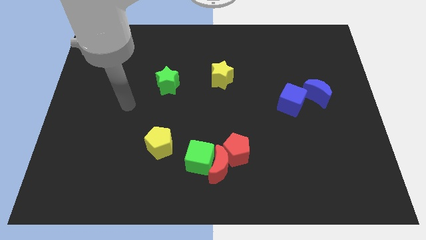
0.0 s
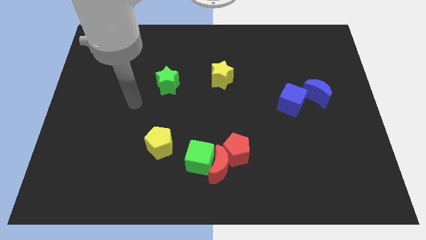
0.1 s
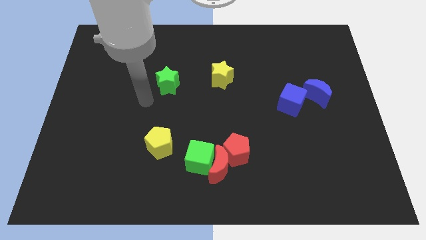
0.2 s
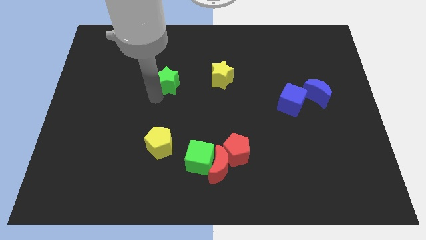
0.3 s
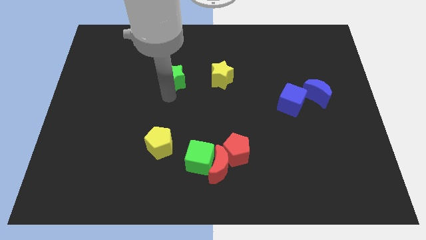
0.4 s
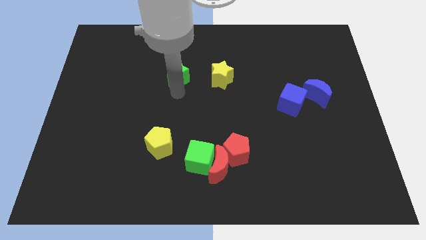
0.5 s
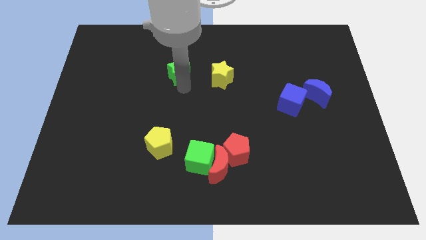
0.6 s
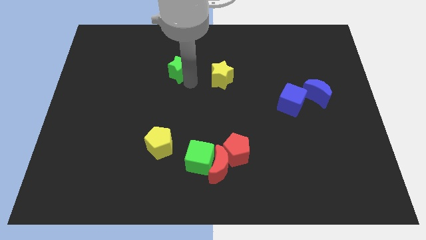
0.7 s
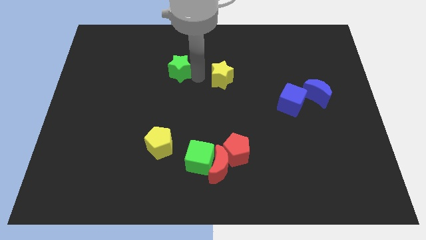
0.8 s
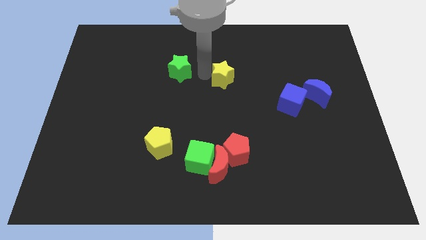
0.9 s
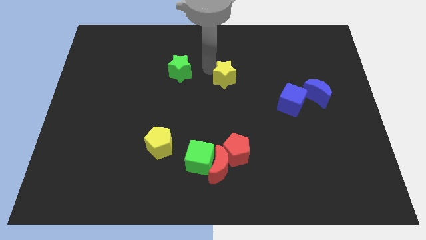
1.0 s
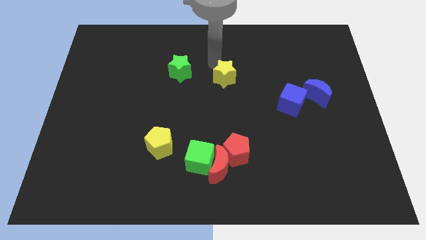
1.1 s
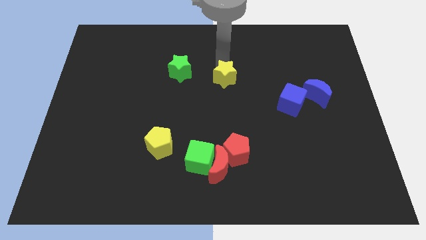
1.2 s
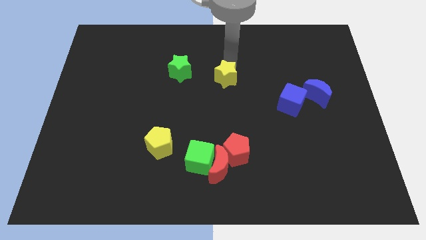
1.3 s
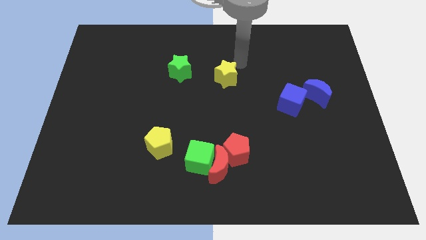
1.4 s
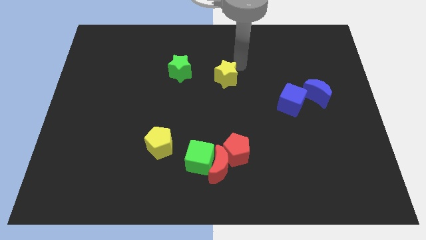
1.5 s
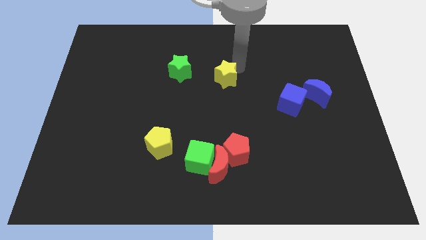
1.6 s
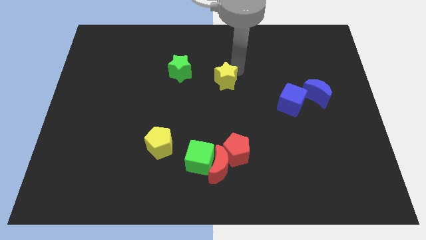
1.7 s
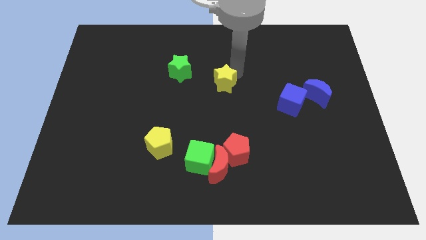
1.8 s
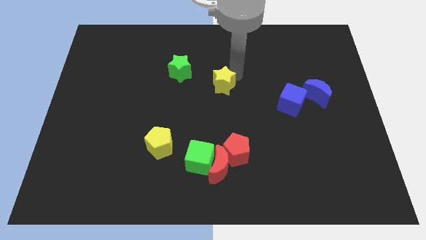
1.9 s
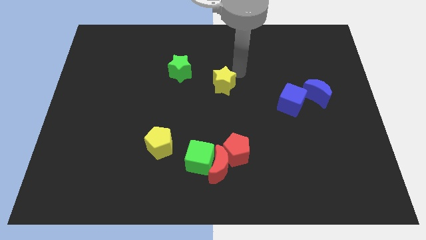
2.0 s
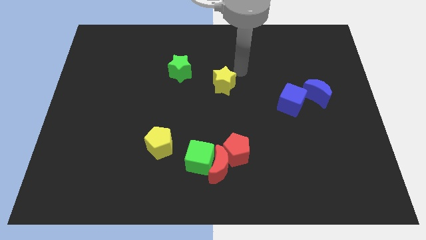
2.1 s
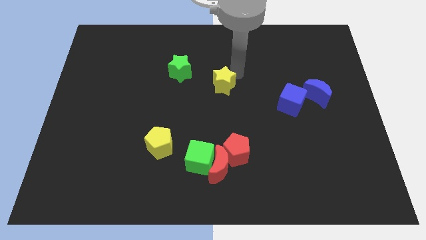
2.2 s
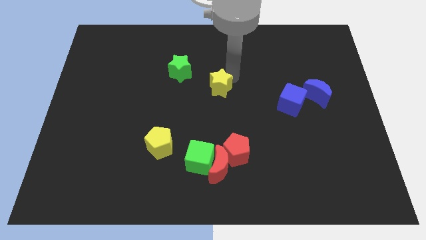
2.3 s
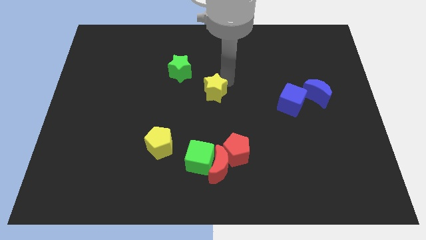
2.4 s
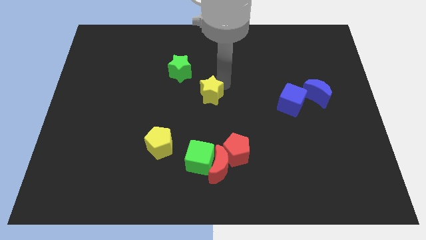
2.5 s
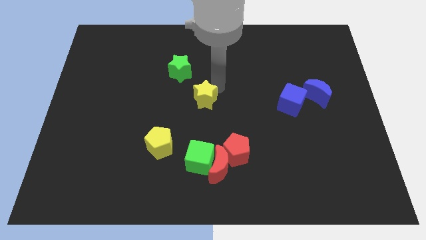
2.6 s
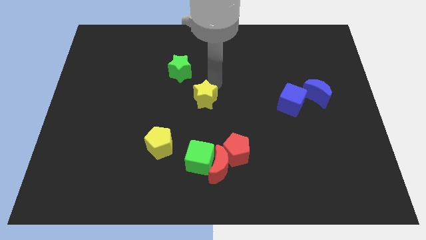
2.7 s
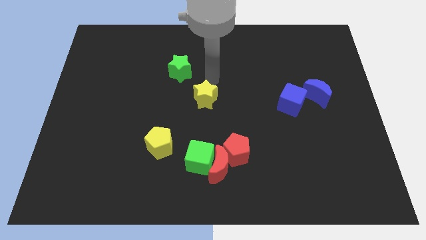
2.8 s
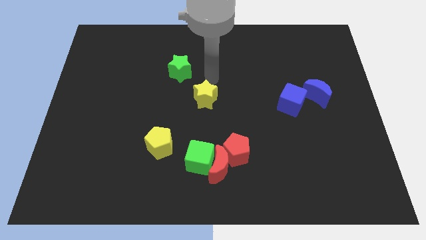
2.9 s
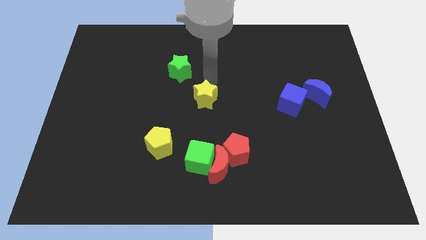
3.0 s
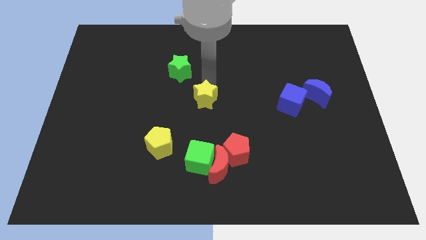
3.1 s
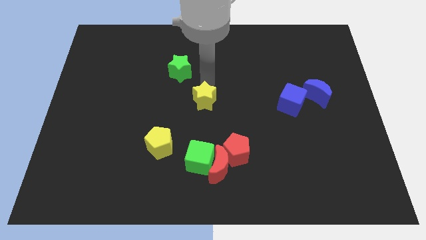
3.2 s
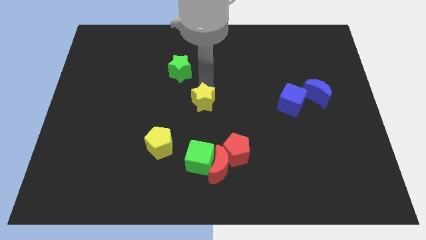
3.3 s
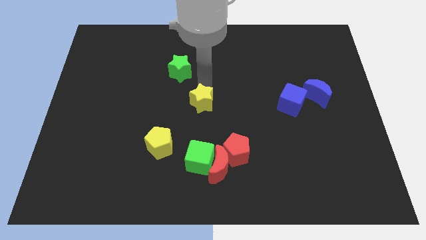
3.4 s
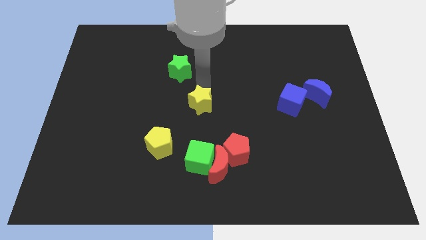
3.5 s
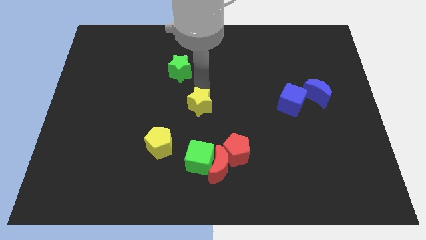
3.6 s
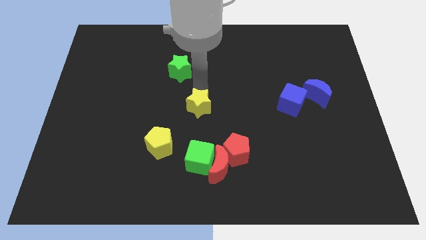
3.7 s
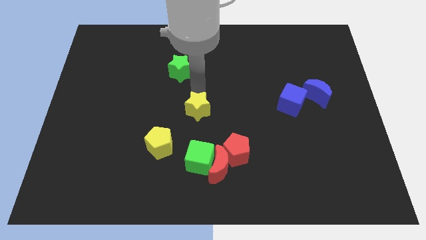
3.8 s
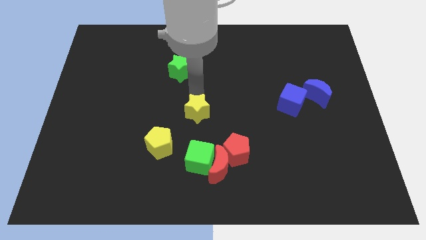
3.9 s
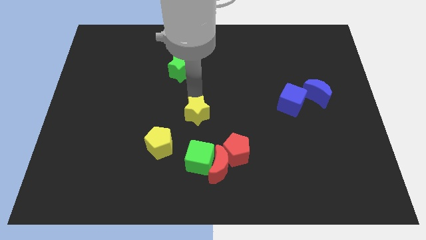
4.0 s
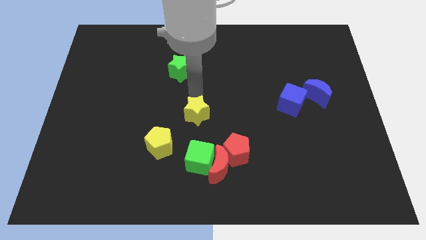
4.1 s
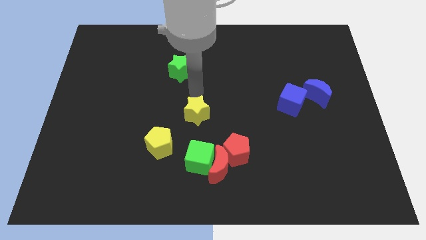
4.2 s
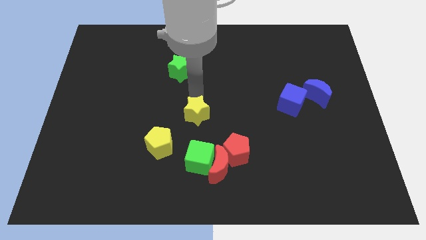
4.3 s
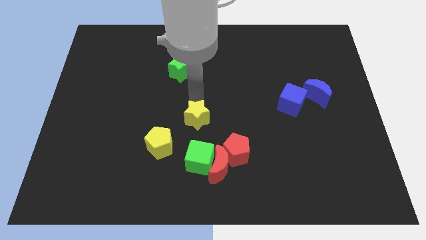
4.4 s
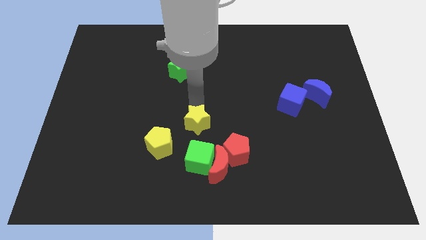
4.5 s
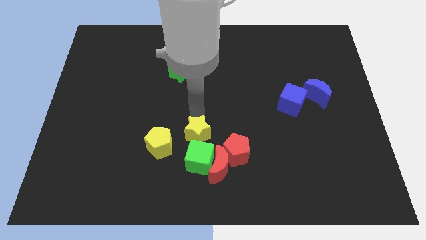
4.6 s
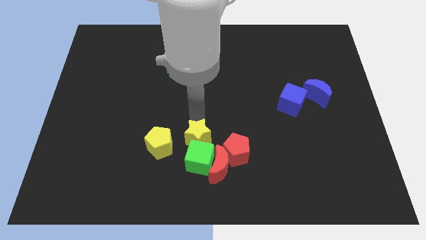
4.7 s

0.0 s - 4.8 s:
move the yellow star next to the green cube

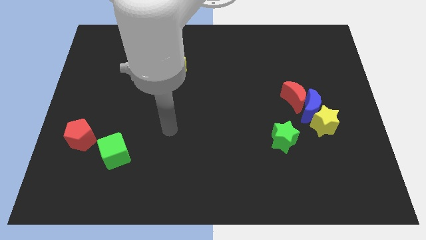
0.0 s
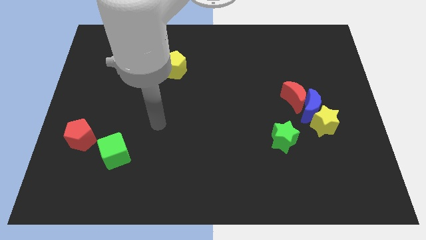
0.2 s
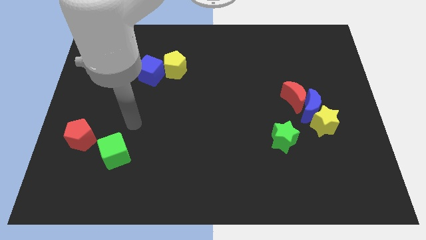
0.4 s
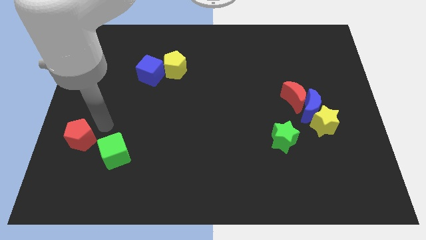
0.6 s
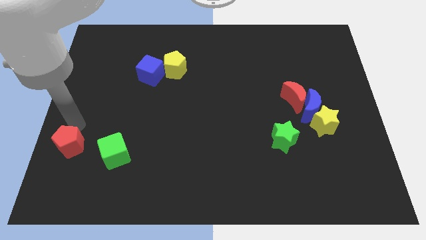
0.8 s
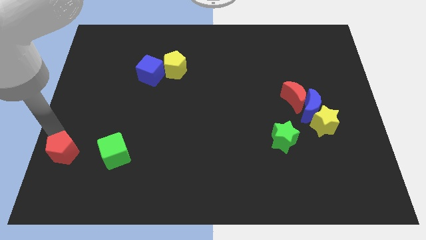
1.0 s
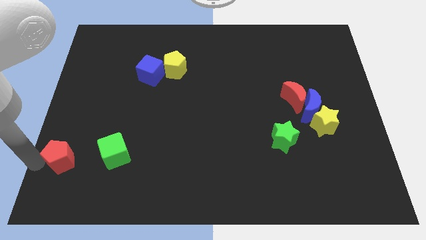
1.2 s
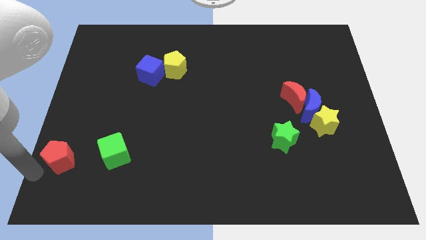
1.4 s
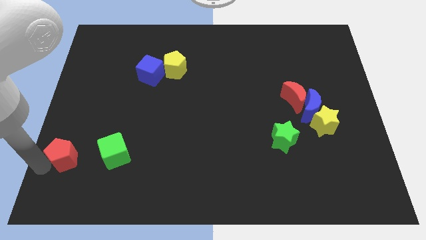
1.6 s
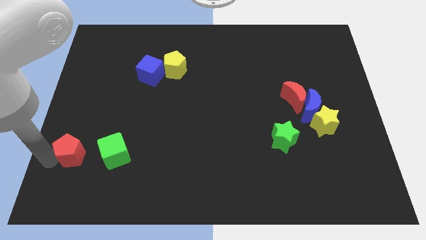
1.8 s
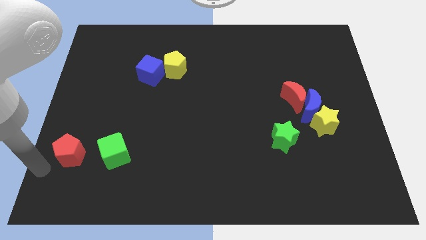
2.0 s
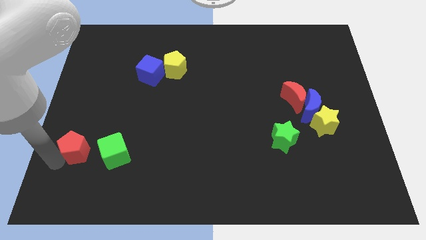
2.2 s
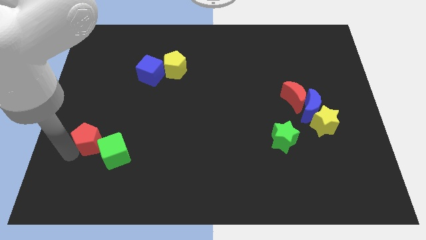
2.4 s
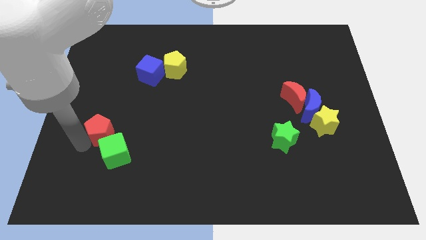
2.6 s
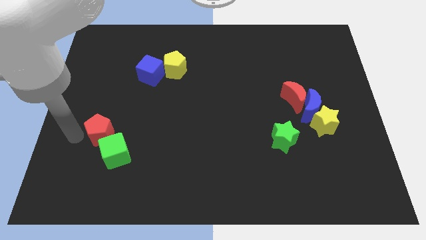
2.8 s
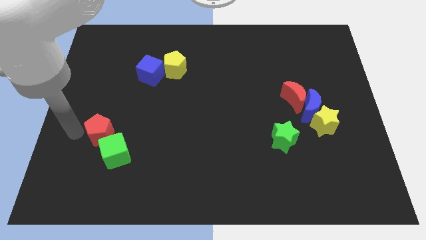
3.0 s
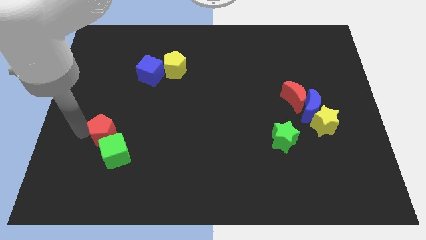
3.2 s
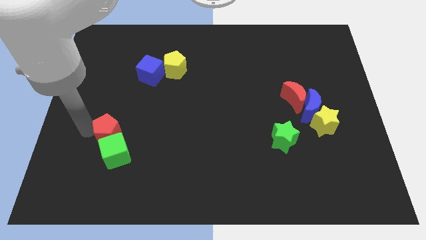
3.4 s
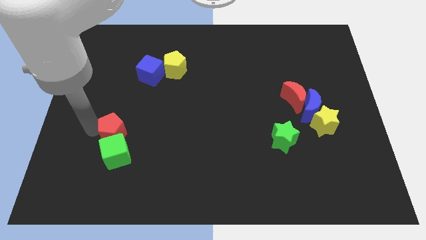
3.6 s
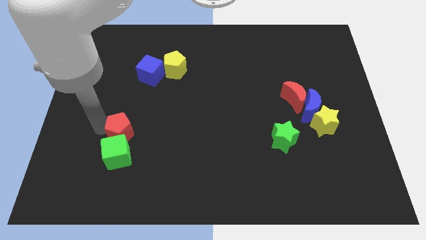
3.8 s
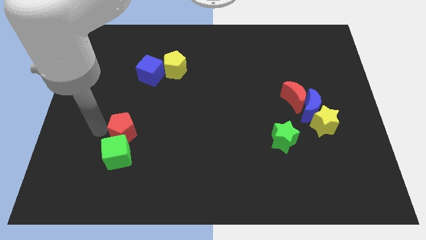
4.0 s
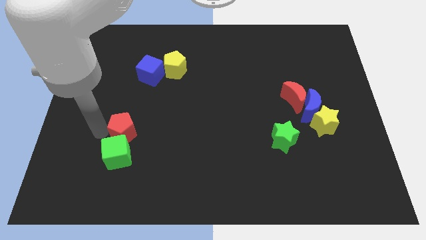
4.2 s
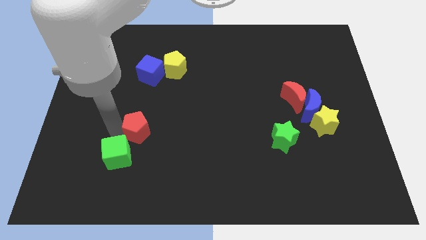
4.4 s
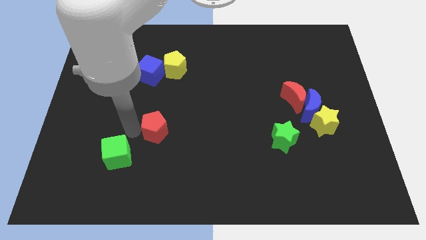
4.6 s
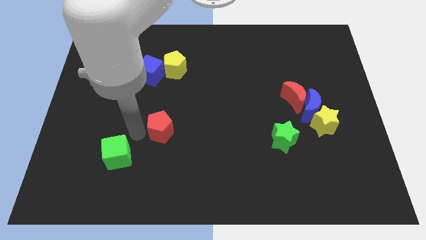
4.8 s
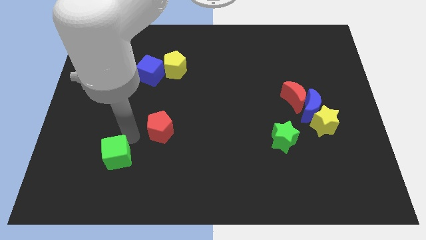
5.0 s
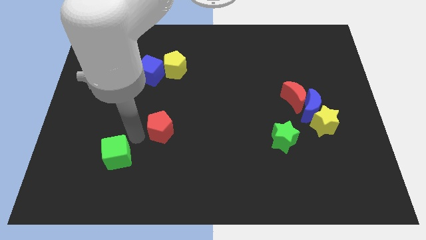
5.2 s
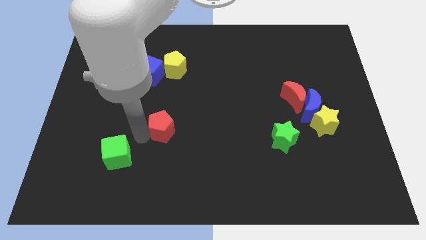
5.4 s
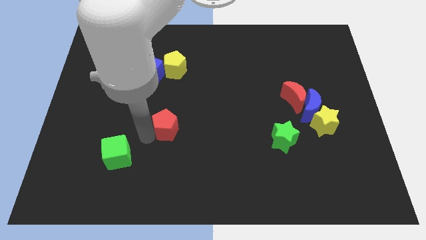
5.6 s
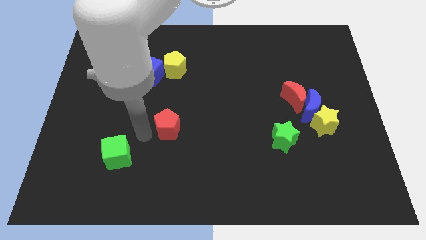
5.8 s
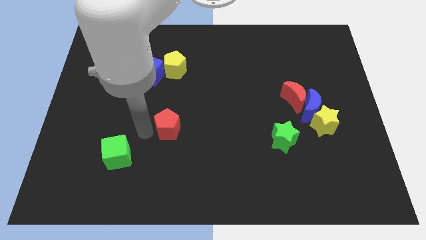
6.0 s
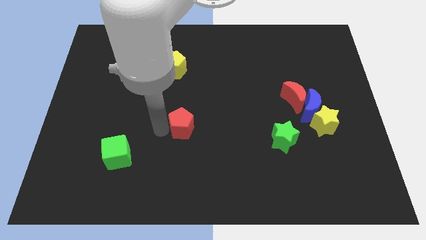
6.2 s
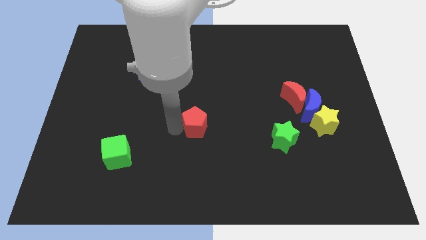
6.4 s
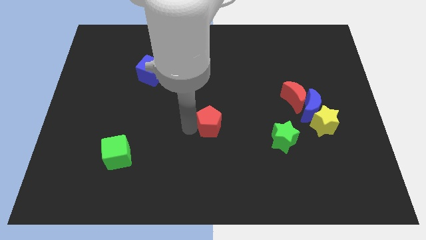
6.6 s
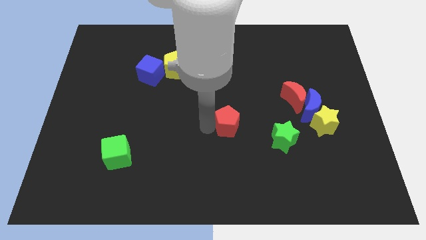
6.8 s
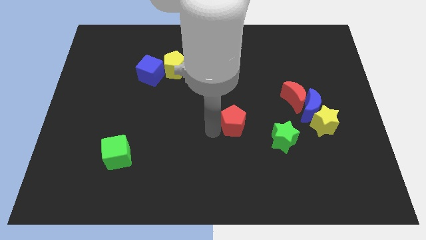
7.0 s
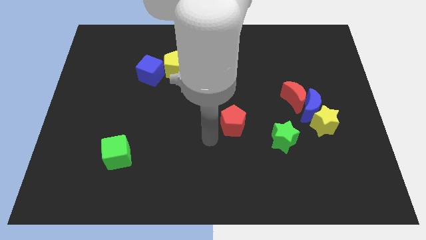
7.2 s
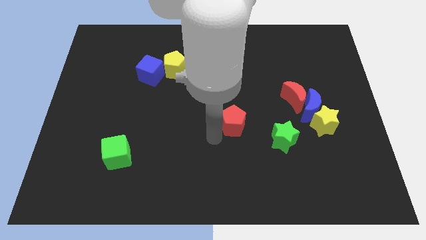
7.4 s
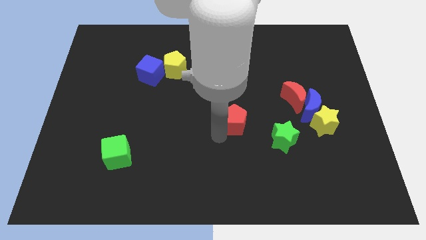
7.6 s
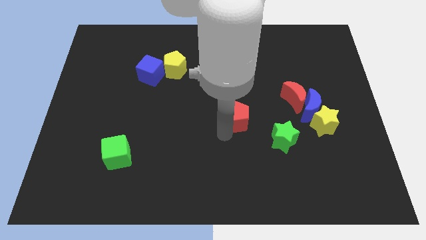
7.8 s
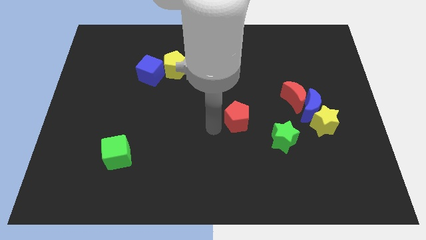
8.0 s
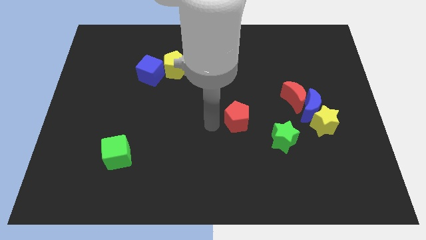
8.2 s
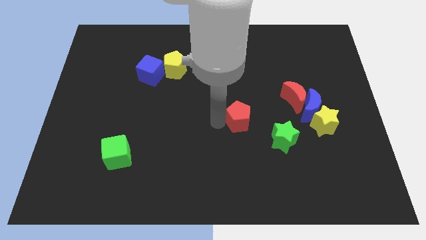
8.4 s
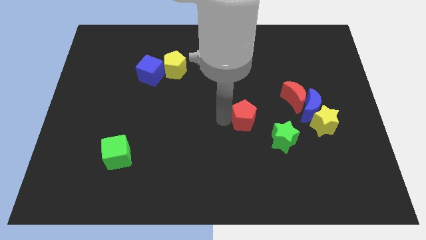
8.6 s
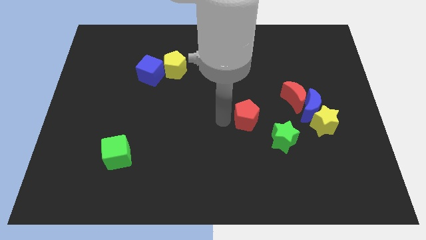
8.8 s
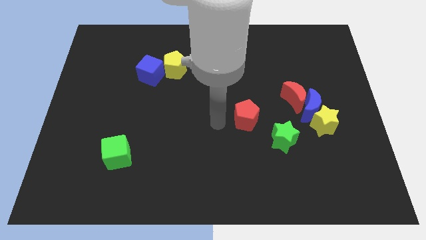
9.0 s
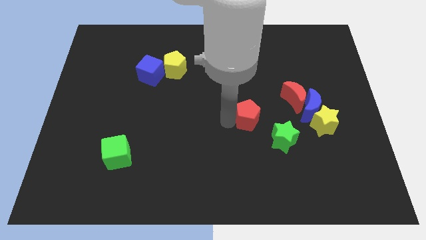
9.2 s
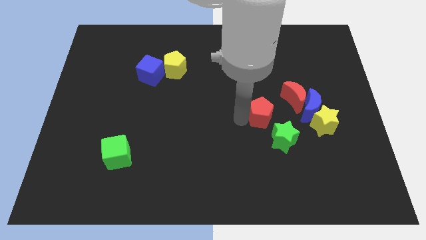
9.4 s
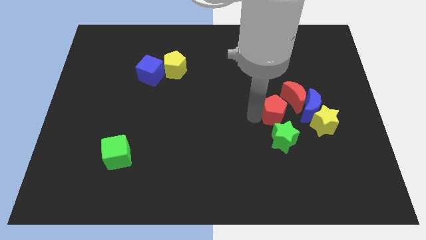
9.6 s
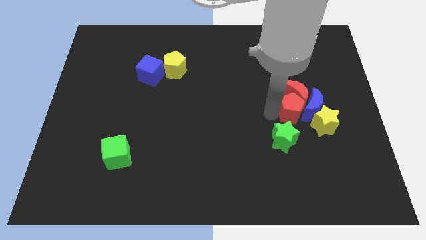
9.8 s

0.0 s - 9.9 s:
put the red pentagon next to the blue moon
